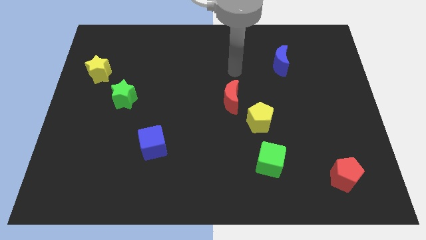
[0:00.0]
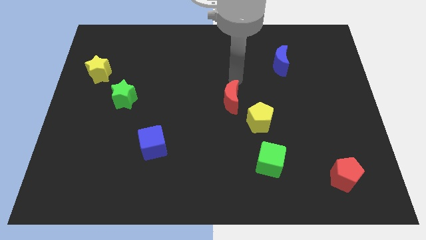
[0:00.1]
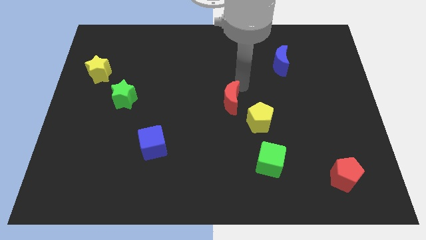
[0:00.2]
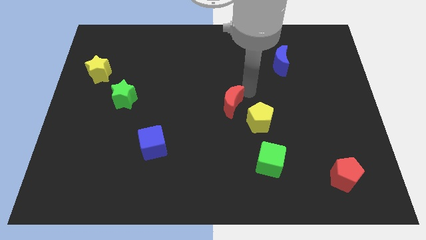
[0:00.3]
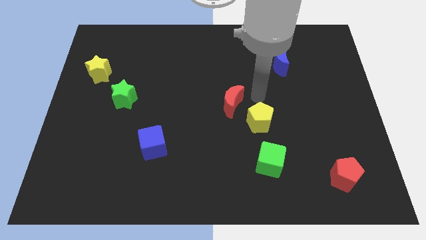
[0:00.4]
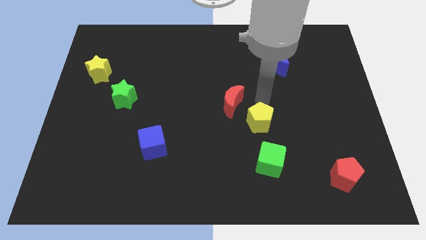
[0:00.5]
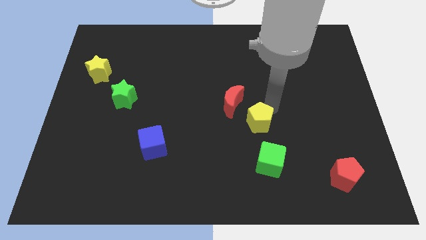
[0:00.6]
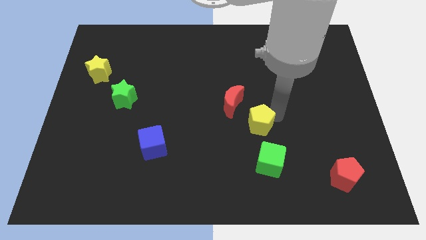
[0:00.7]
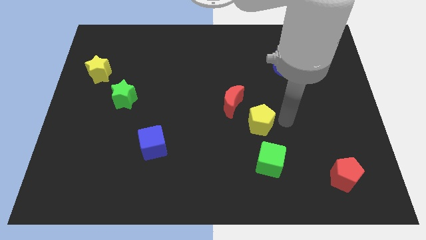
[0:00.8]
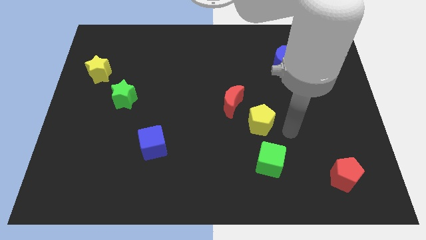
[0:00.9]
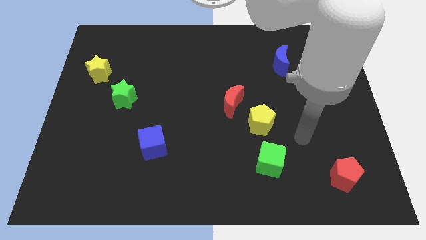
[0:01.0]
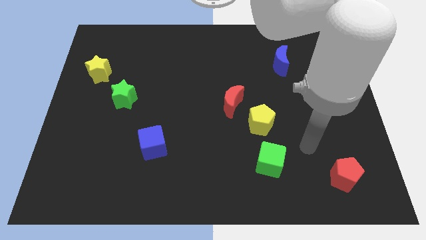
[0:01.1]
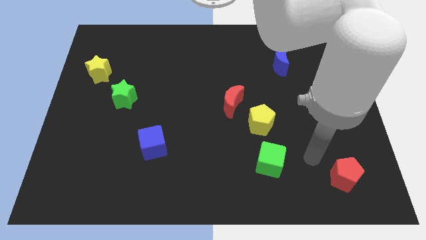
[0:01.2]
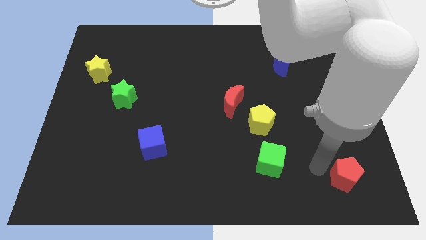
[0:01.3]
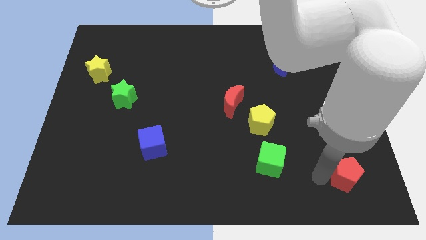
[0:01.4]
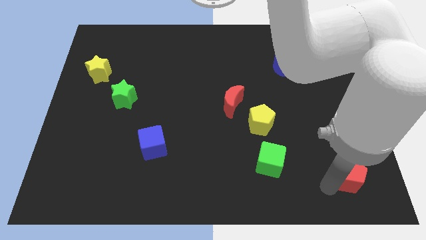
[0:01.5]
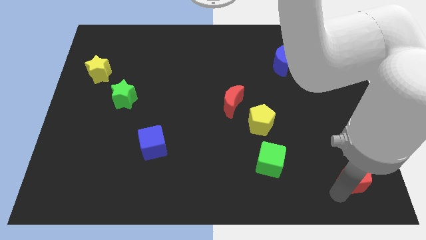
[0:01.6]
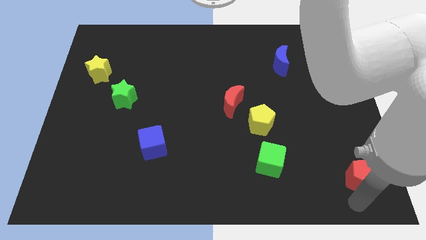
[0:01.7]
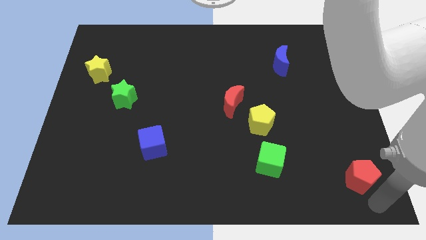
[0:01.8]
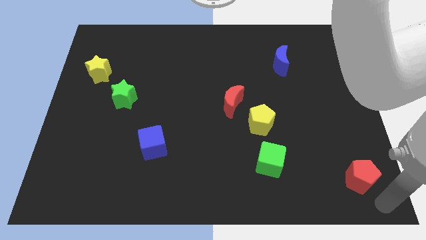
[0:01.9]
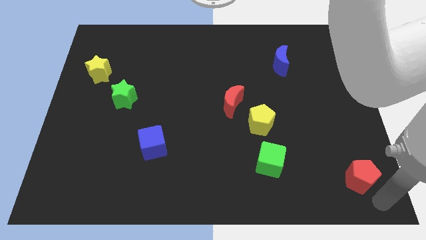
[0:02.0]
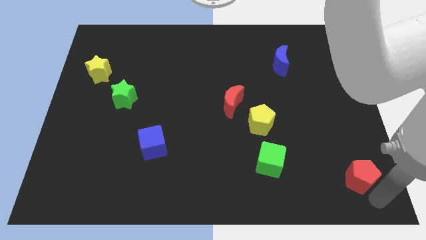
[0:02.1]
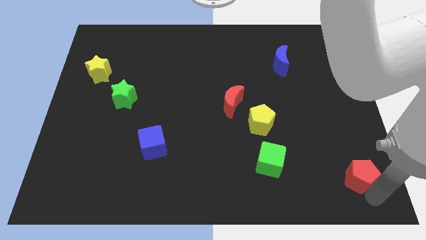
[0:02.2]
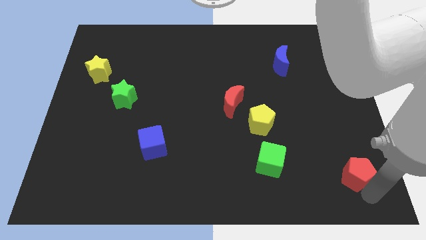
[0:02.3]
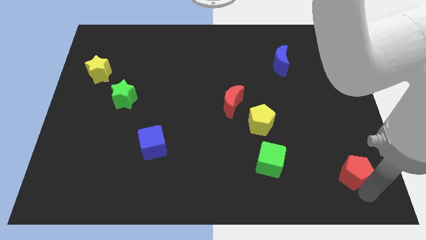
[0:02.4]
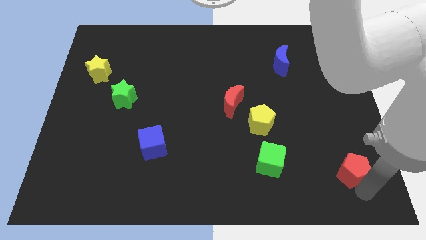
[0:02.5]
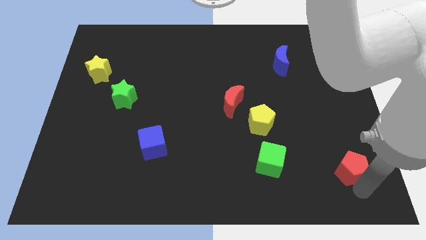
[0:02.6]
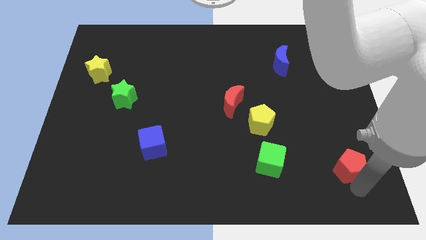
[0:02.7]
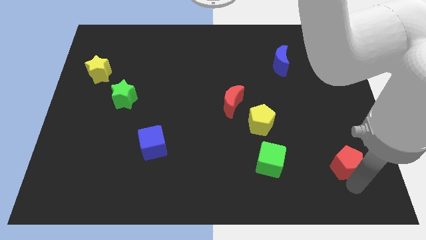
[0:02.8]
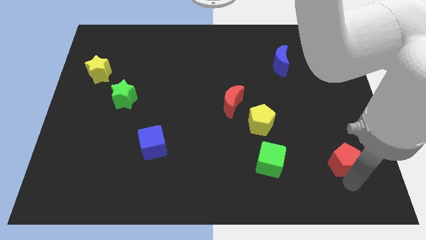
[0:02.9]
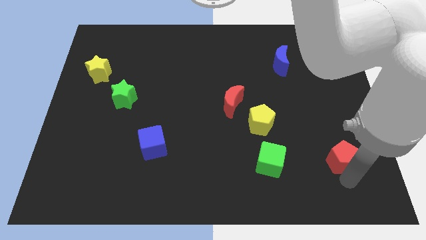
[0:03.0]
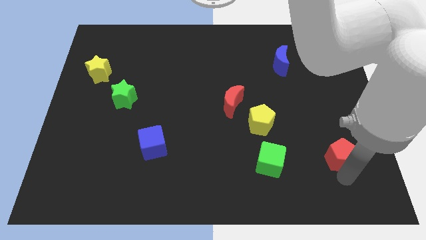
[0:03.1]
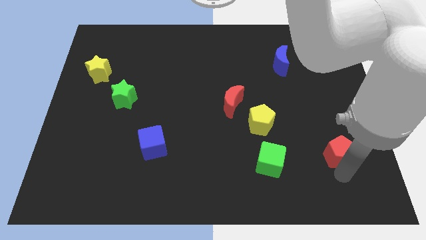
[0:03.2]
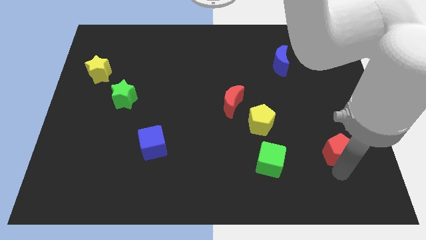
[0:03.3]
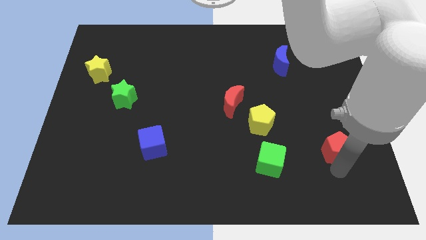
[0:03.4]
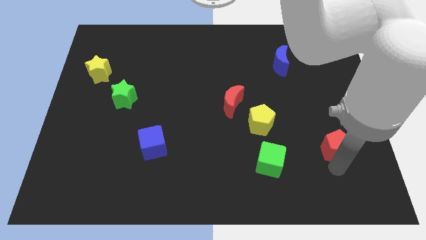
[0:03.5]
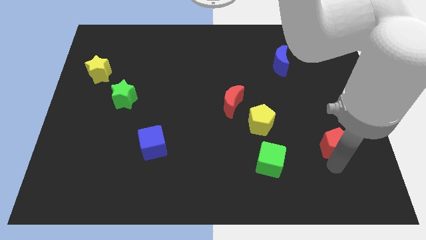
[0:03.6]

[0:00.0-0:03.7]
move the red pentagon somewhat up

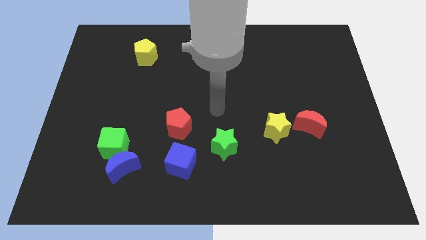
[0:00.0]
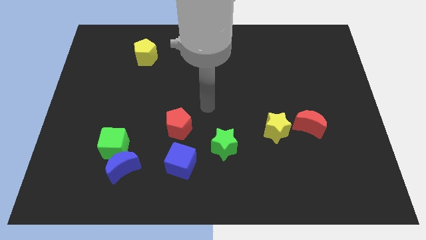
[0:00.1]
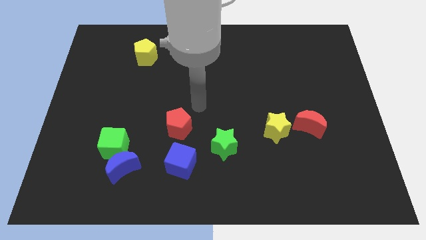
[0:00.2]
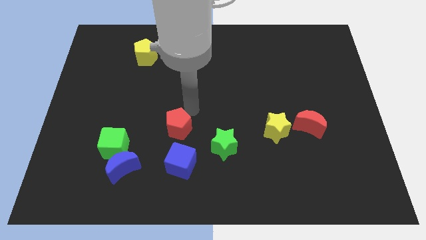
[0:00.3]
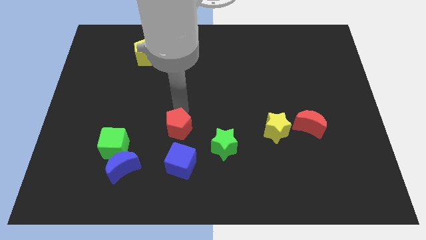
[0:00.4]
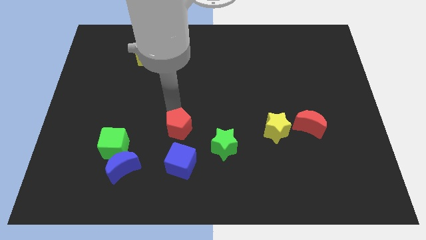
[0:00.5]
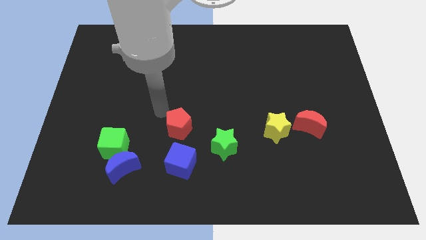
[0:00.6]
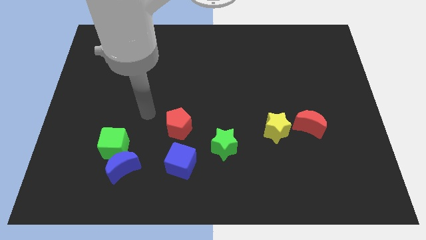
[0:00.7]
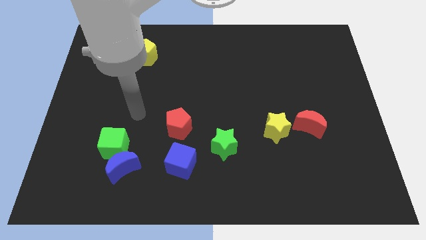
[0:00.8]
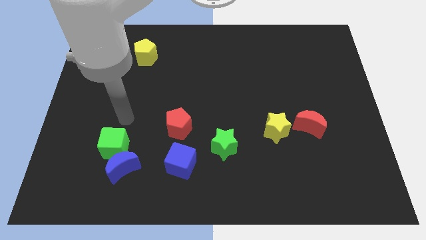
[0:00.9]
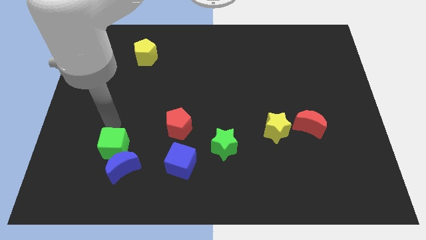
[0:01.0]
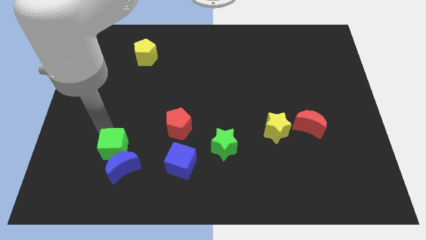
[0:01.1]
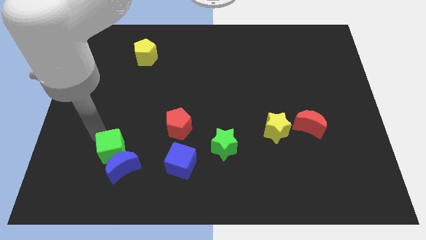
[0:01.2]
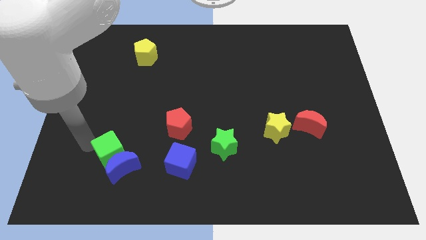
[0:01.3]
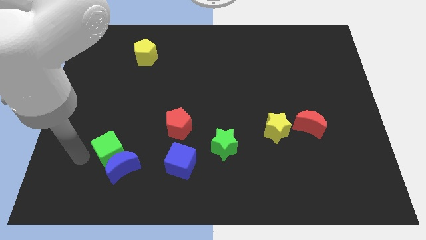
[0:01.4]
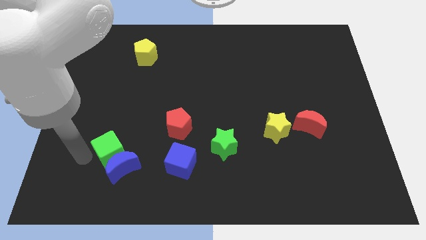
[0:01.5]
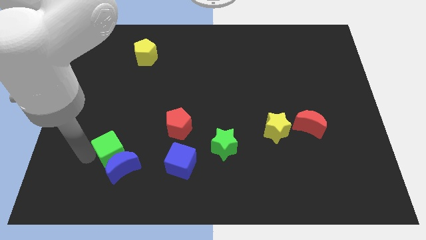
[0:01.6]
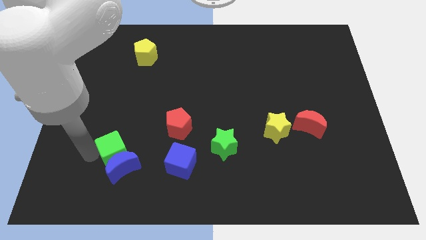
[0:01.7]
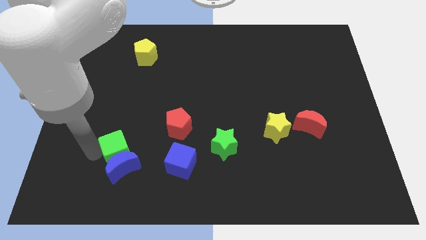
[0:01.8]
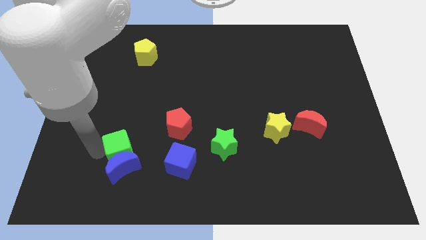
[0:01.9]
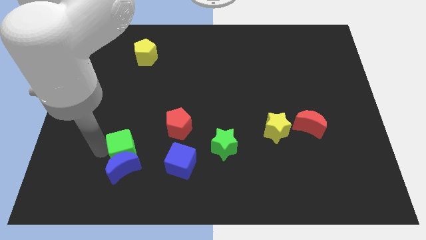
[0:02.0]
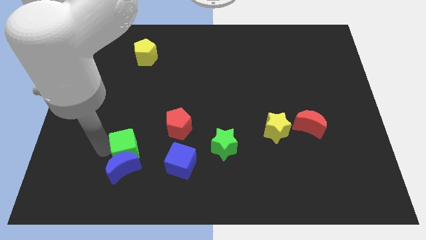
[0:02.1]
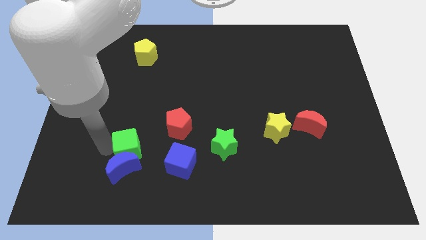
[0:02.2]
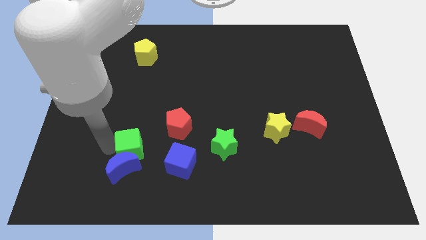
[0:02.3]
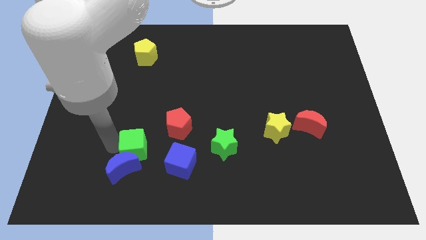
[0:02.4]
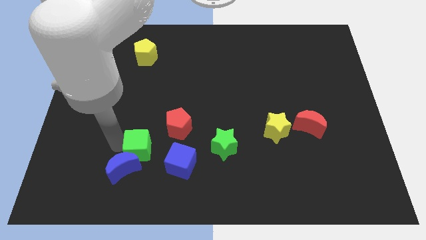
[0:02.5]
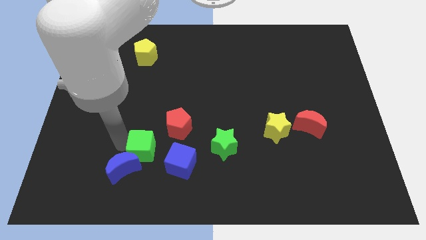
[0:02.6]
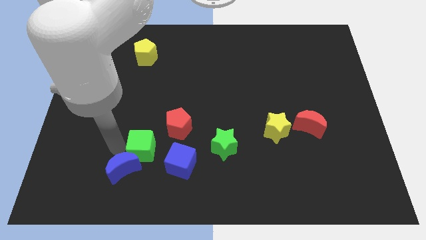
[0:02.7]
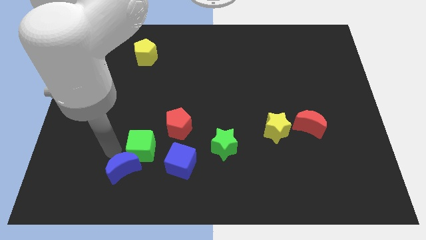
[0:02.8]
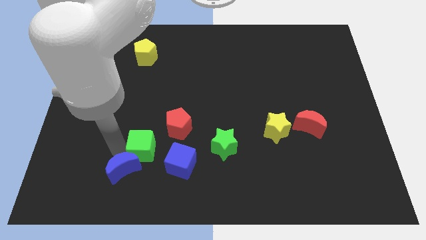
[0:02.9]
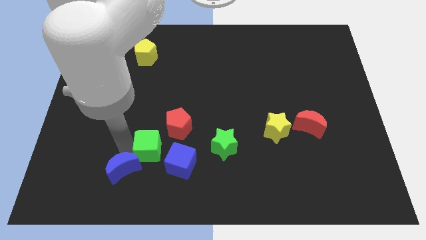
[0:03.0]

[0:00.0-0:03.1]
push the green cube to the right a bit

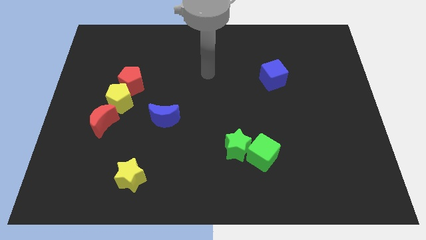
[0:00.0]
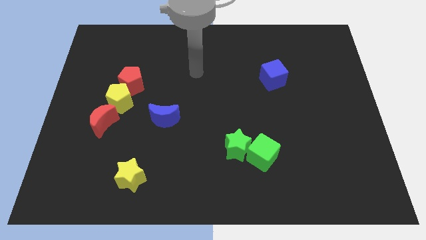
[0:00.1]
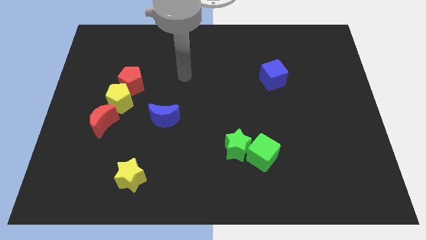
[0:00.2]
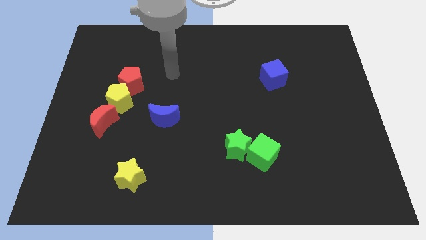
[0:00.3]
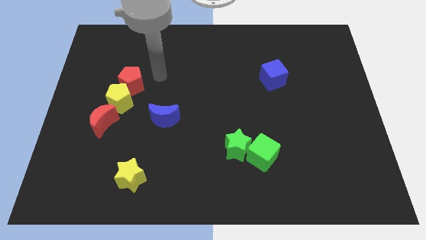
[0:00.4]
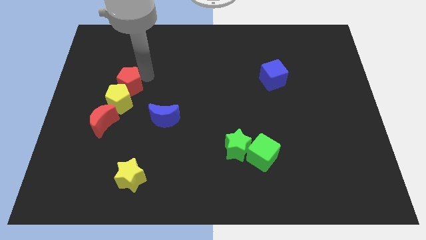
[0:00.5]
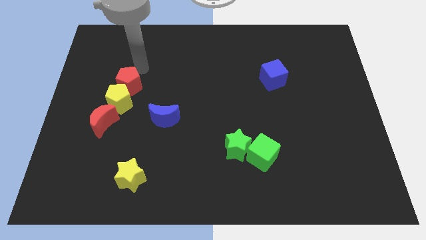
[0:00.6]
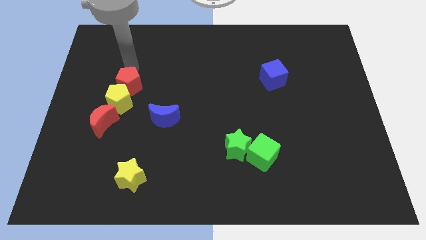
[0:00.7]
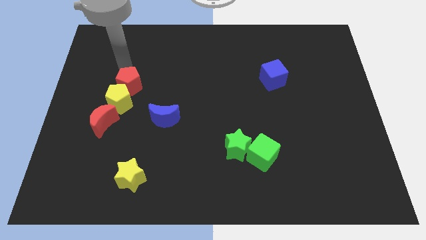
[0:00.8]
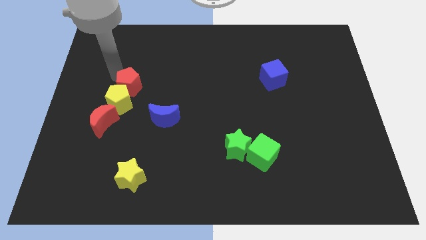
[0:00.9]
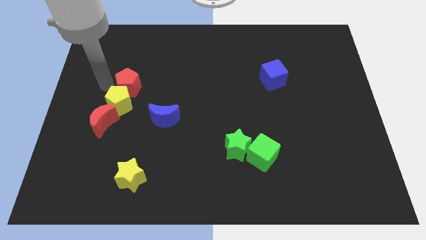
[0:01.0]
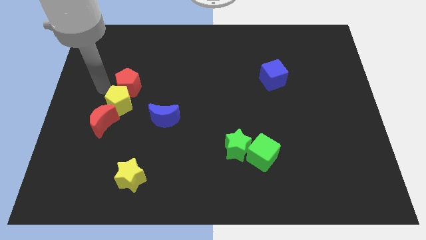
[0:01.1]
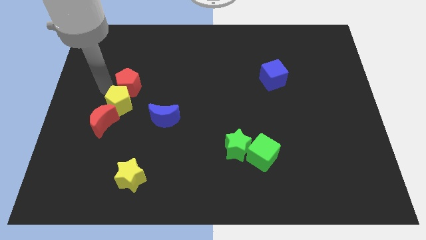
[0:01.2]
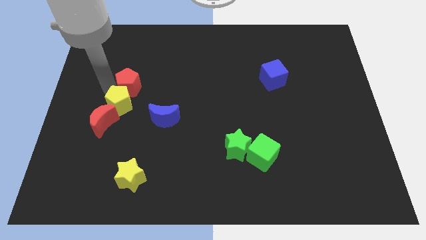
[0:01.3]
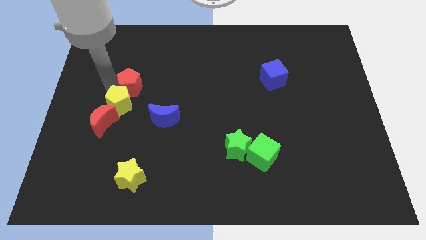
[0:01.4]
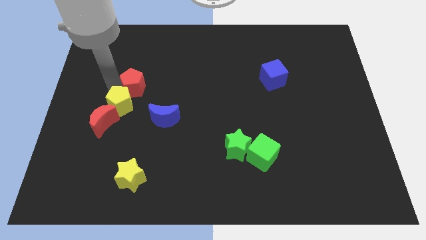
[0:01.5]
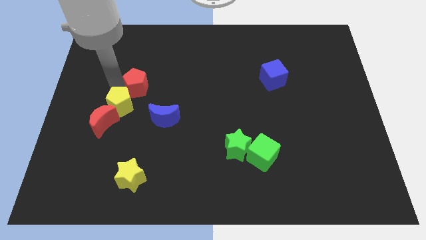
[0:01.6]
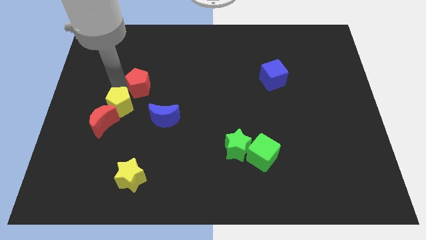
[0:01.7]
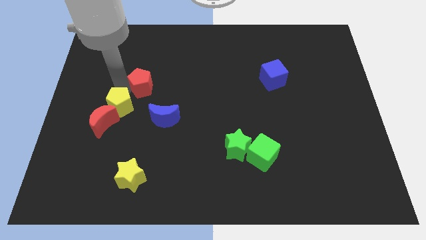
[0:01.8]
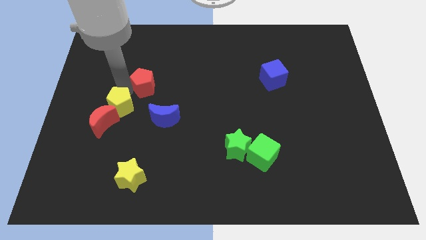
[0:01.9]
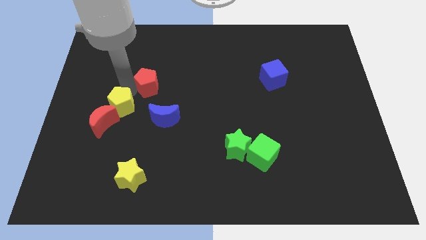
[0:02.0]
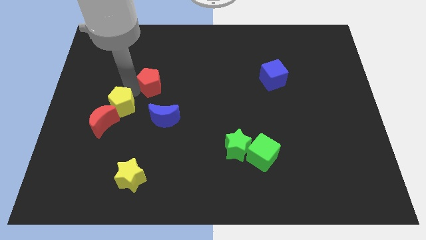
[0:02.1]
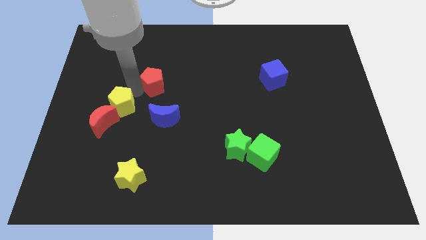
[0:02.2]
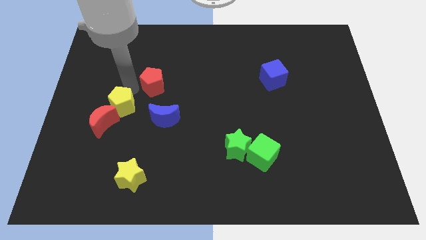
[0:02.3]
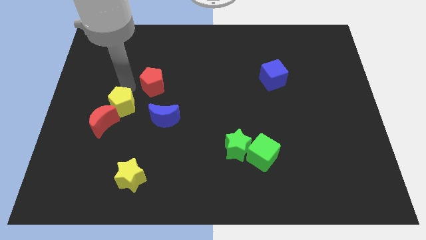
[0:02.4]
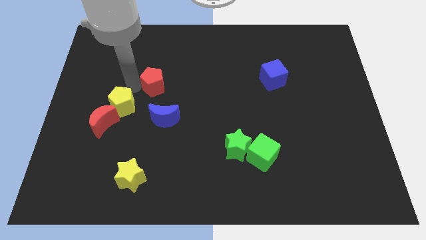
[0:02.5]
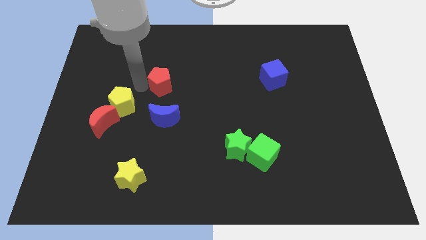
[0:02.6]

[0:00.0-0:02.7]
slightly slide the red pentagon to the right
